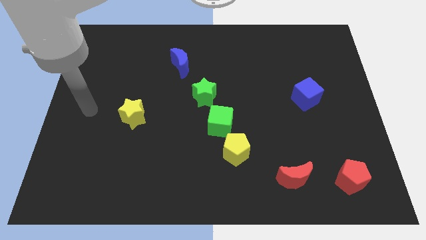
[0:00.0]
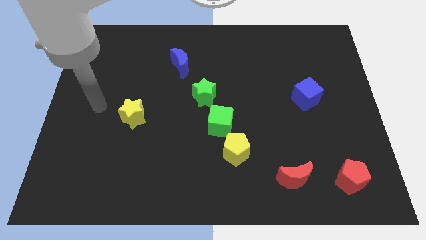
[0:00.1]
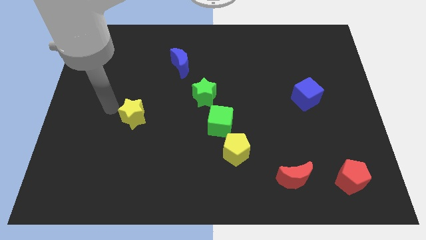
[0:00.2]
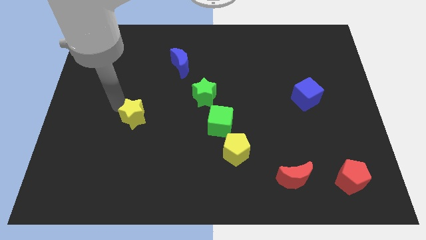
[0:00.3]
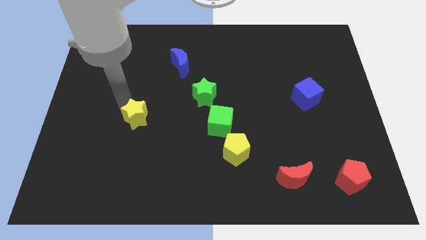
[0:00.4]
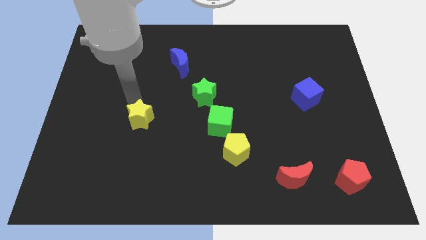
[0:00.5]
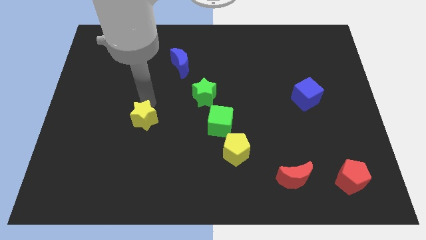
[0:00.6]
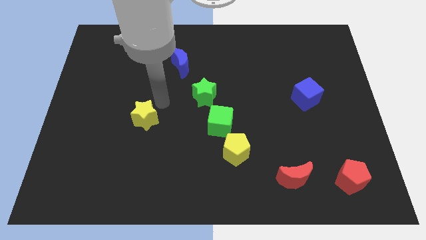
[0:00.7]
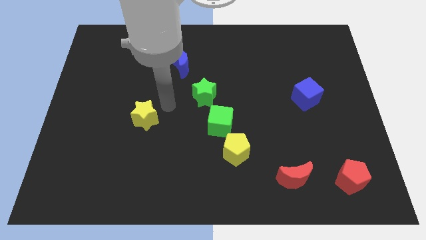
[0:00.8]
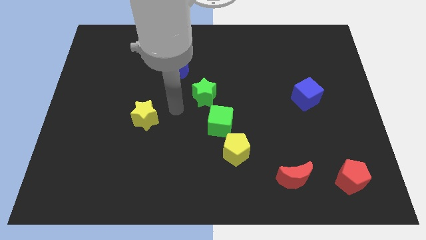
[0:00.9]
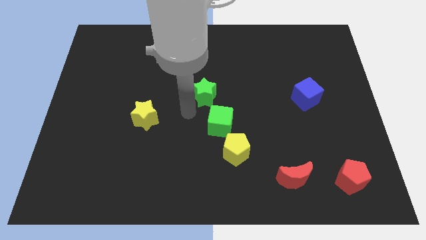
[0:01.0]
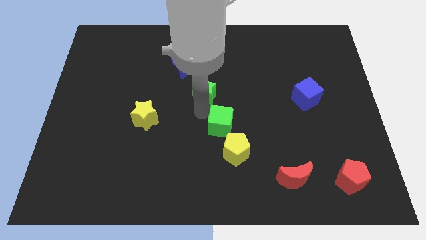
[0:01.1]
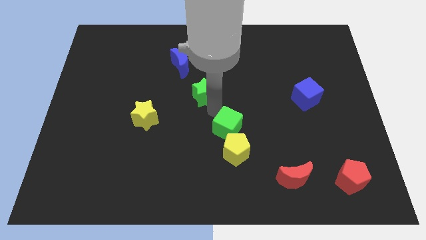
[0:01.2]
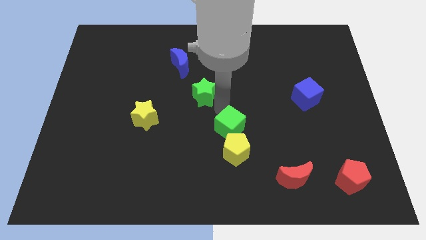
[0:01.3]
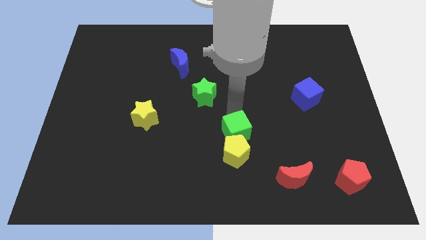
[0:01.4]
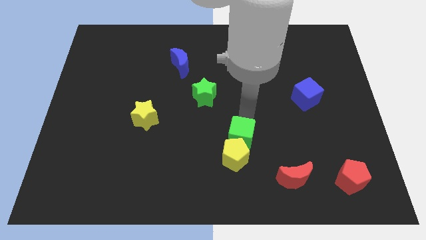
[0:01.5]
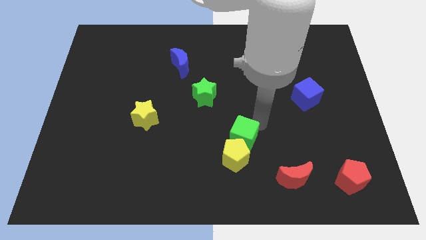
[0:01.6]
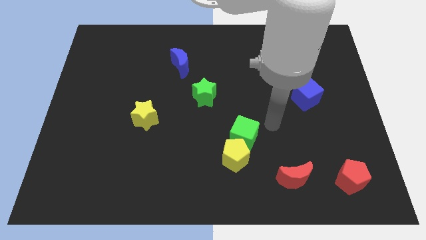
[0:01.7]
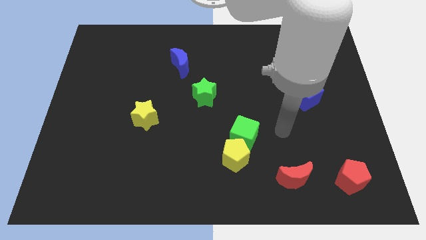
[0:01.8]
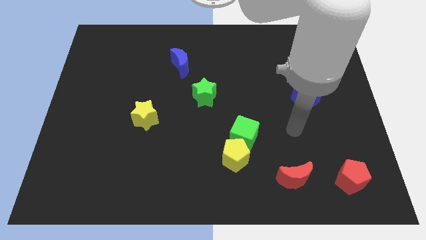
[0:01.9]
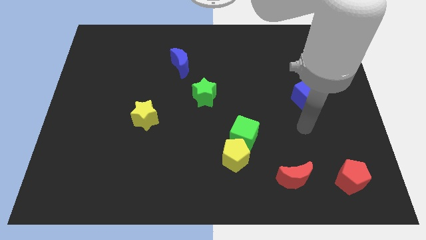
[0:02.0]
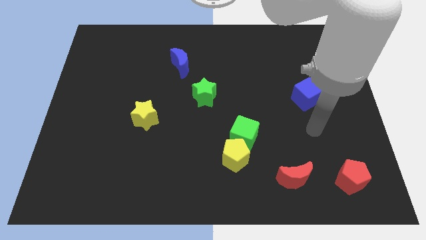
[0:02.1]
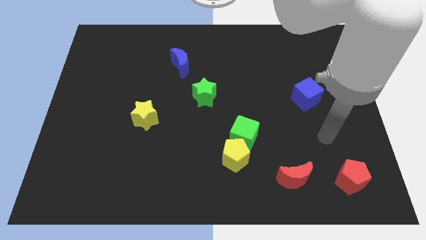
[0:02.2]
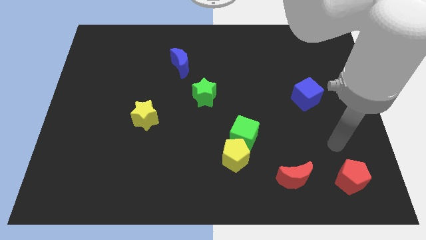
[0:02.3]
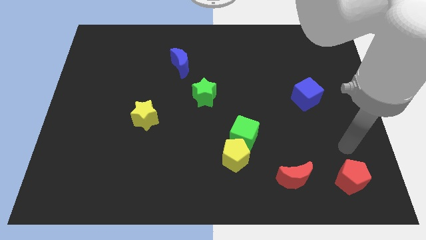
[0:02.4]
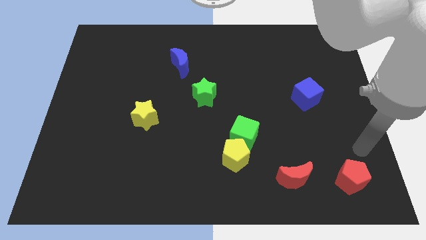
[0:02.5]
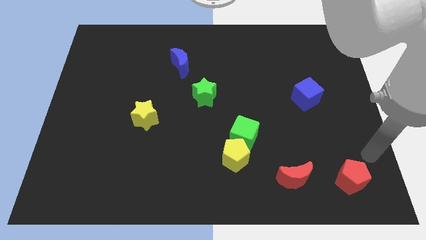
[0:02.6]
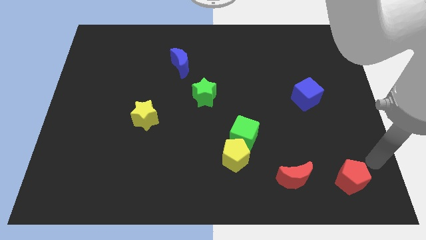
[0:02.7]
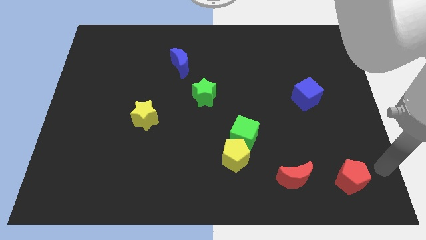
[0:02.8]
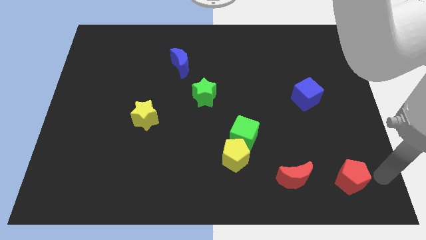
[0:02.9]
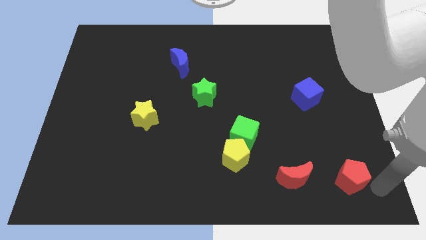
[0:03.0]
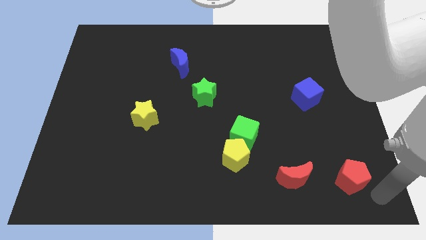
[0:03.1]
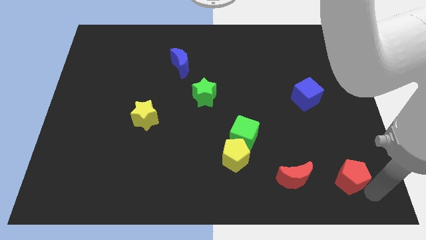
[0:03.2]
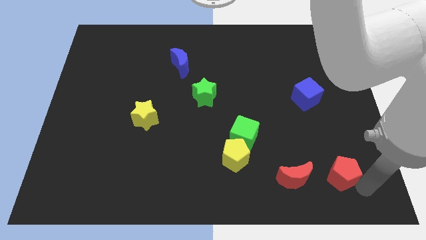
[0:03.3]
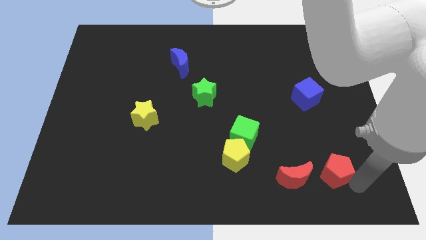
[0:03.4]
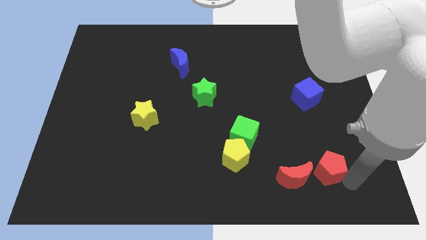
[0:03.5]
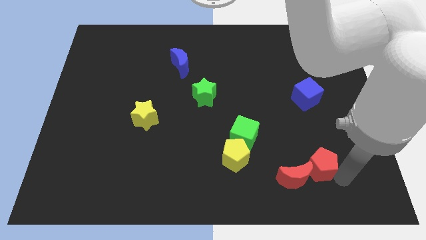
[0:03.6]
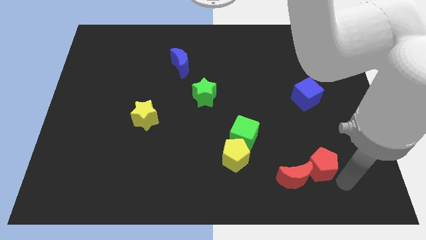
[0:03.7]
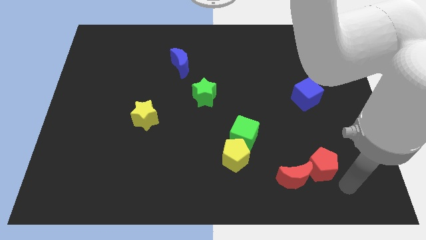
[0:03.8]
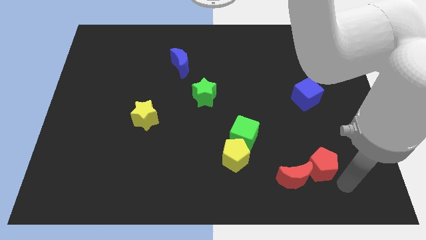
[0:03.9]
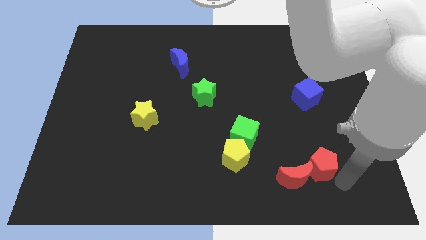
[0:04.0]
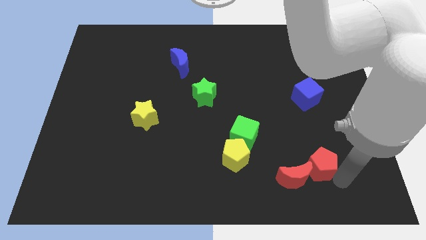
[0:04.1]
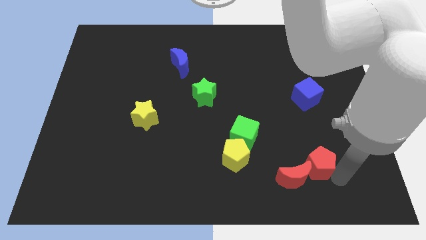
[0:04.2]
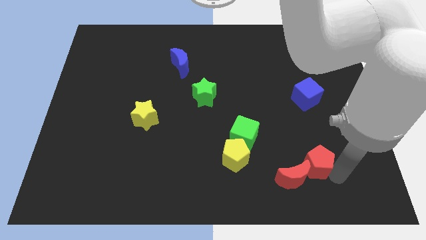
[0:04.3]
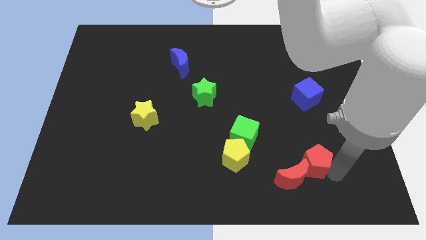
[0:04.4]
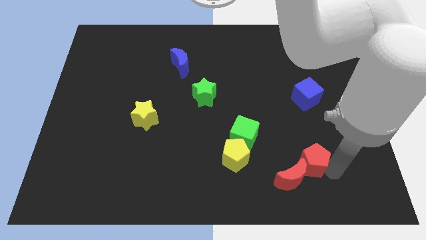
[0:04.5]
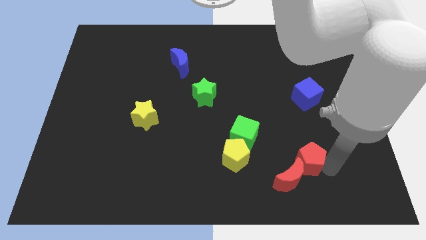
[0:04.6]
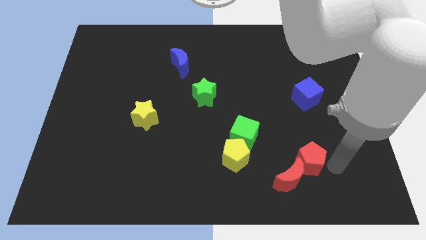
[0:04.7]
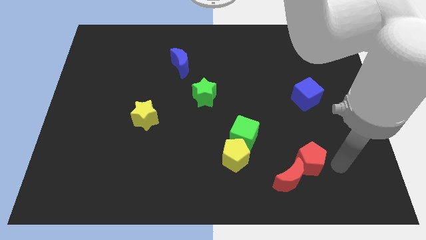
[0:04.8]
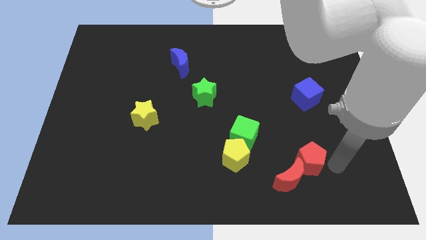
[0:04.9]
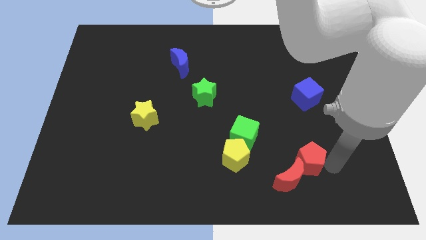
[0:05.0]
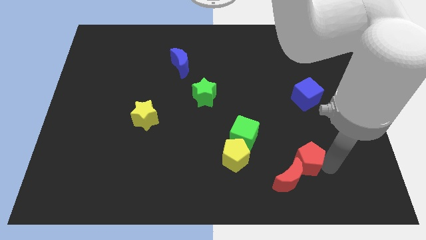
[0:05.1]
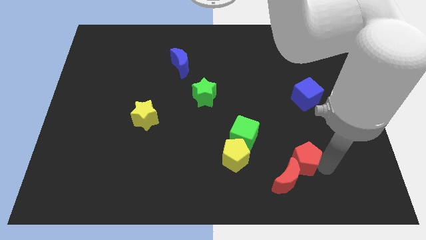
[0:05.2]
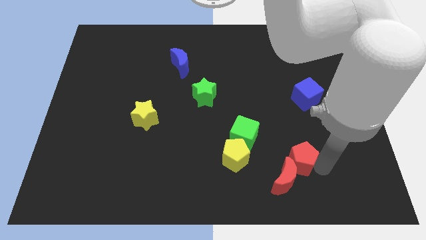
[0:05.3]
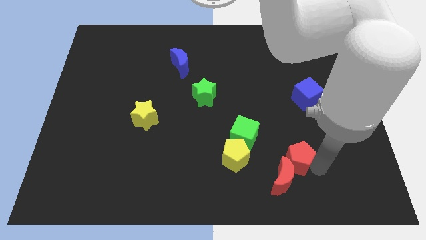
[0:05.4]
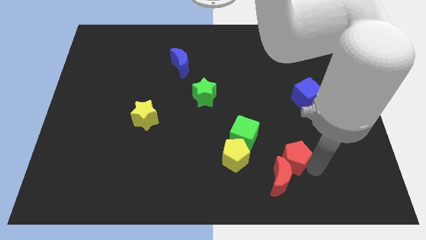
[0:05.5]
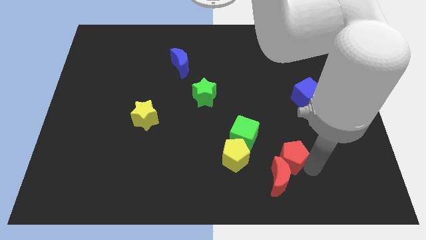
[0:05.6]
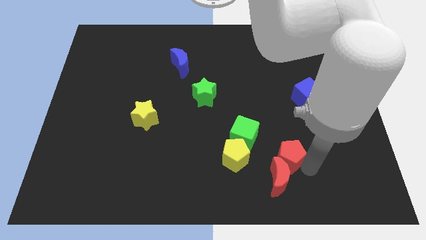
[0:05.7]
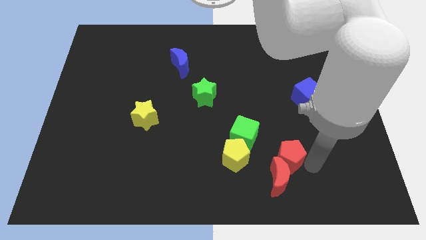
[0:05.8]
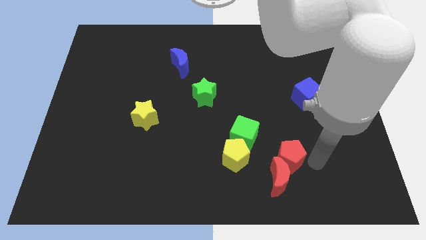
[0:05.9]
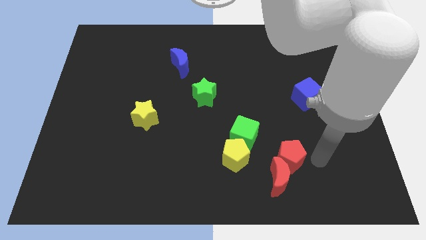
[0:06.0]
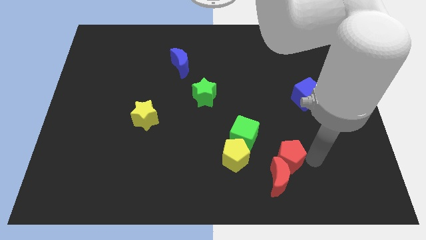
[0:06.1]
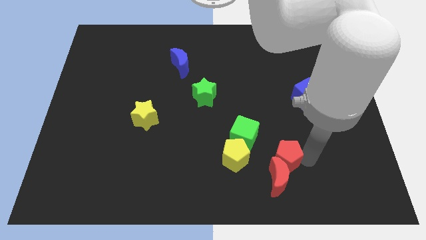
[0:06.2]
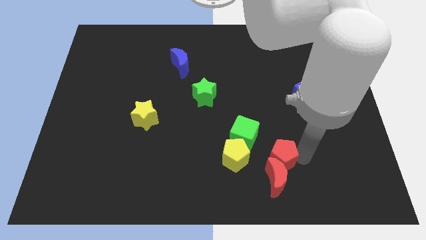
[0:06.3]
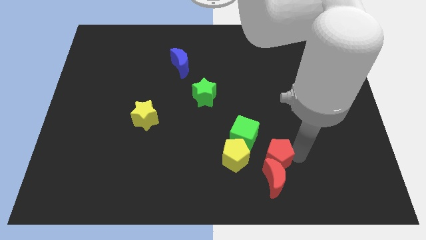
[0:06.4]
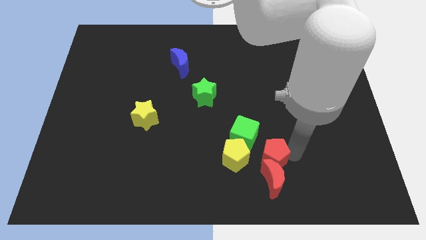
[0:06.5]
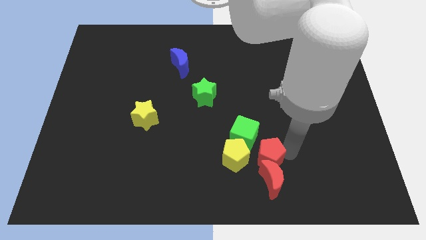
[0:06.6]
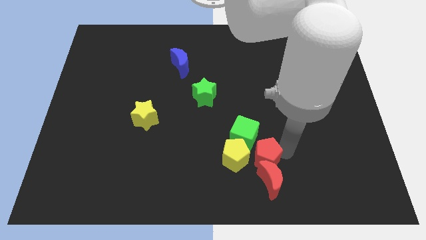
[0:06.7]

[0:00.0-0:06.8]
move the red pentagon close to the yellow pentagon

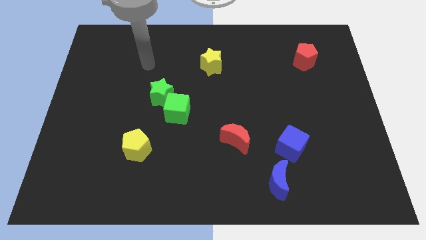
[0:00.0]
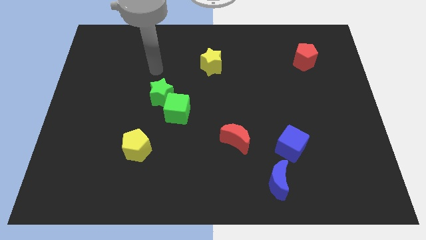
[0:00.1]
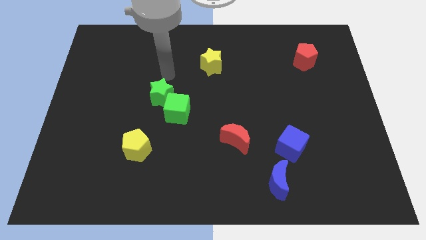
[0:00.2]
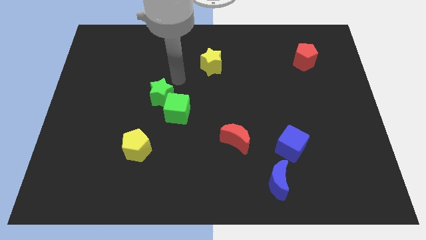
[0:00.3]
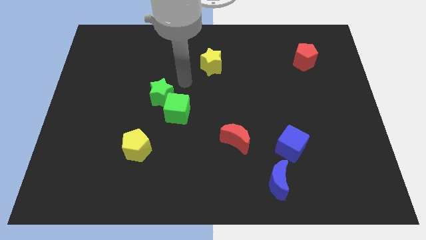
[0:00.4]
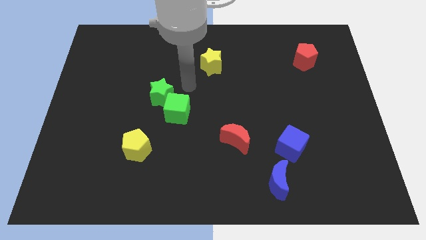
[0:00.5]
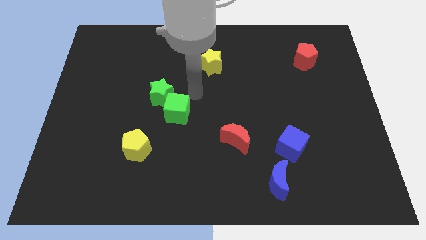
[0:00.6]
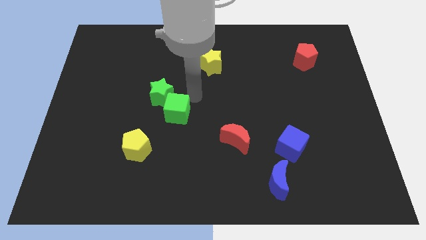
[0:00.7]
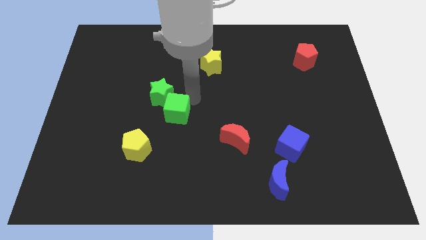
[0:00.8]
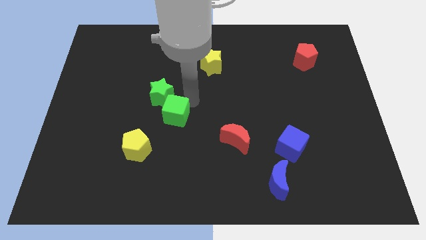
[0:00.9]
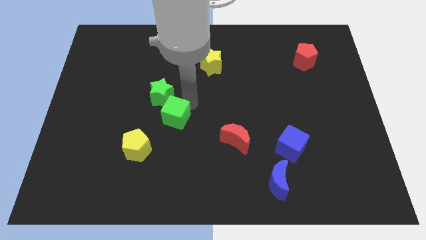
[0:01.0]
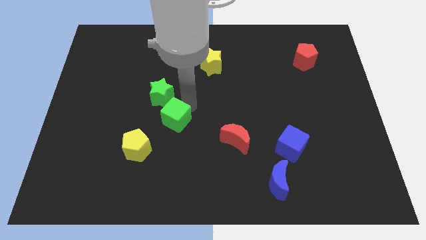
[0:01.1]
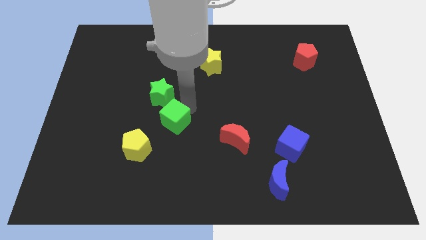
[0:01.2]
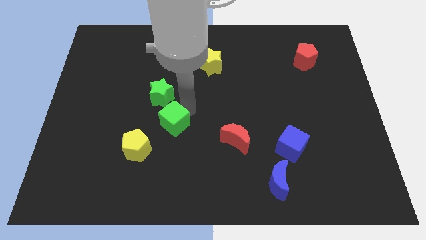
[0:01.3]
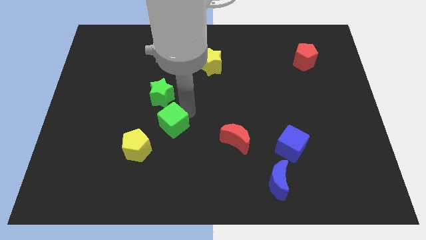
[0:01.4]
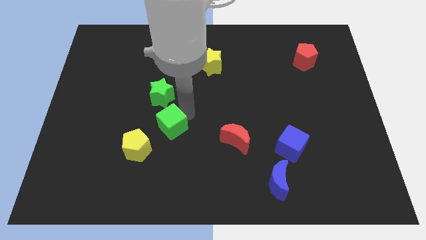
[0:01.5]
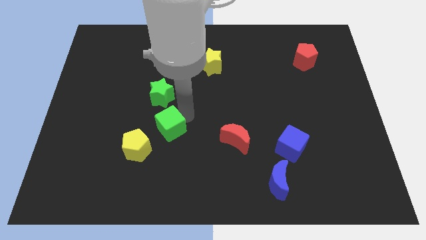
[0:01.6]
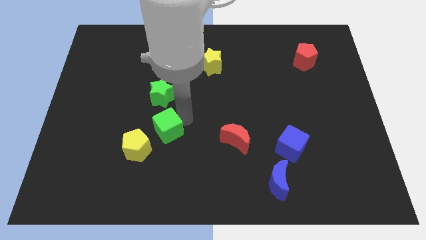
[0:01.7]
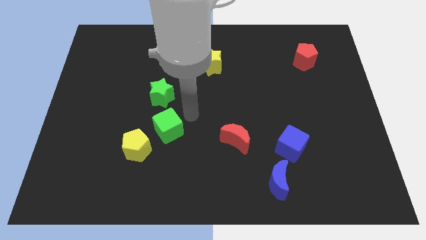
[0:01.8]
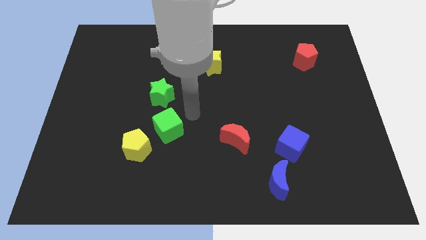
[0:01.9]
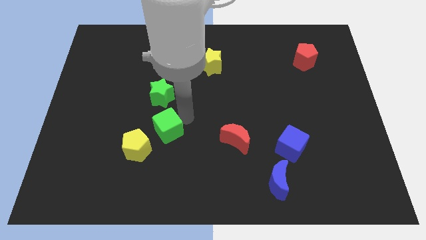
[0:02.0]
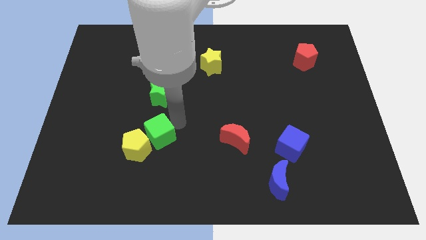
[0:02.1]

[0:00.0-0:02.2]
push the green cube close to the yellow pentagon
